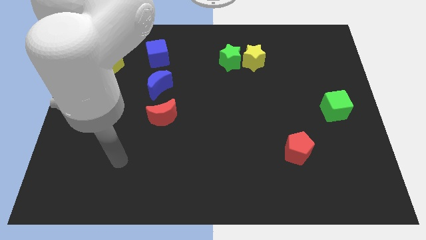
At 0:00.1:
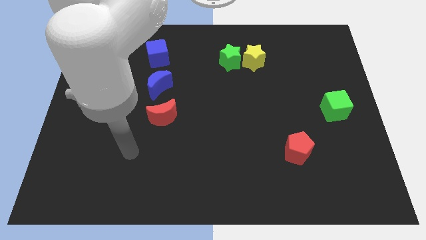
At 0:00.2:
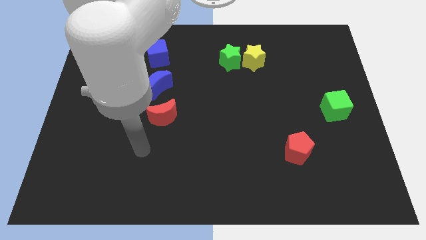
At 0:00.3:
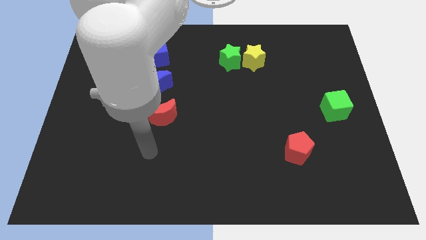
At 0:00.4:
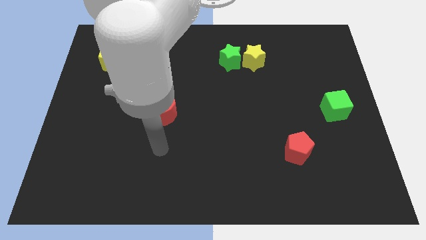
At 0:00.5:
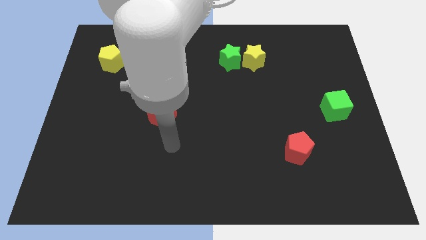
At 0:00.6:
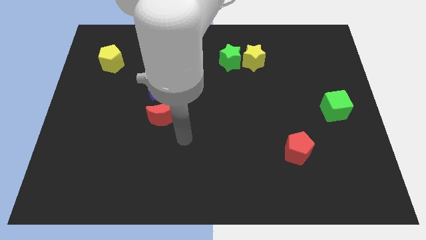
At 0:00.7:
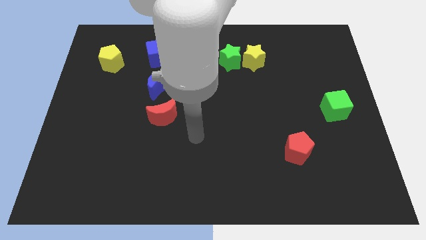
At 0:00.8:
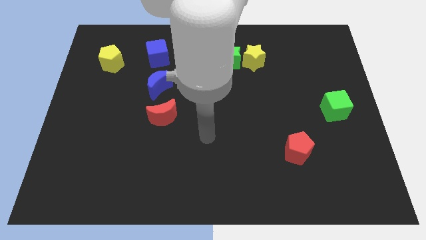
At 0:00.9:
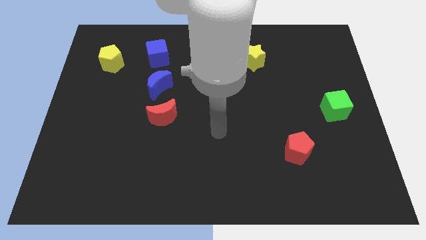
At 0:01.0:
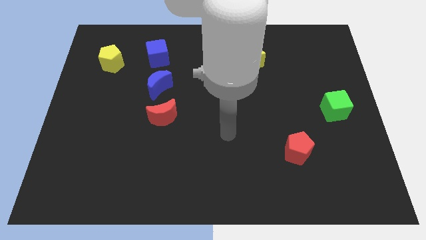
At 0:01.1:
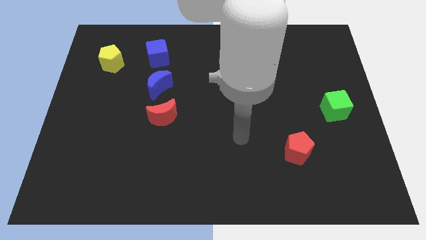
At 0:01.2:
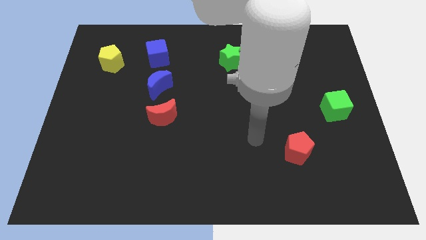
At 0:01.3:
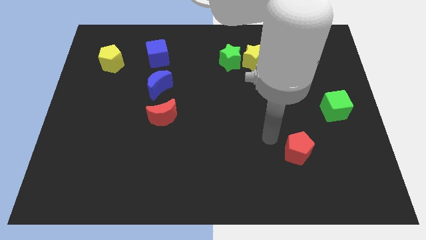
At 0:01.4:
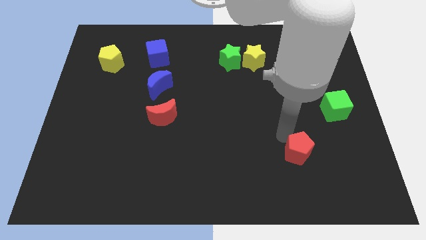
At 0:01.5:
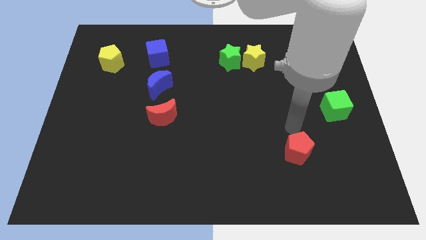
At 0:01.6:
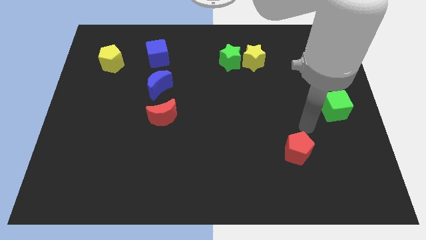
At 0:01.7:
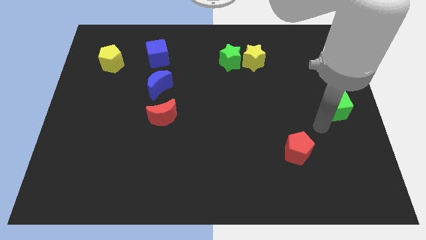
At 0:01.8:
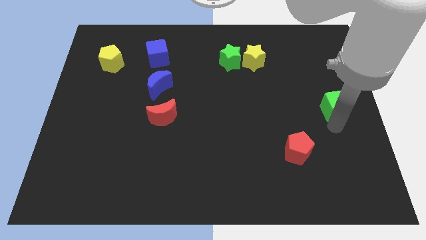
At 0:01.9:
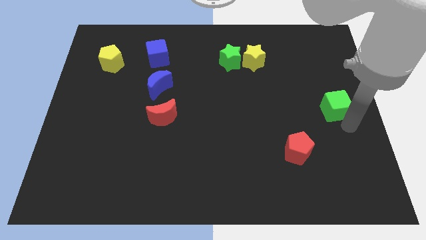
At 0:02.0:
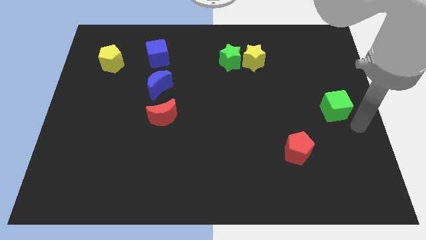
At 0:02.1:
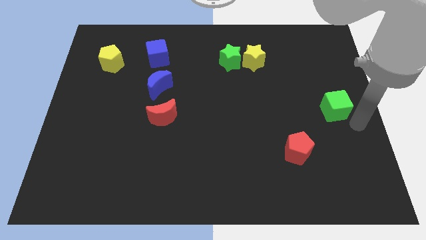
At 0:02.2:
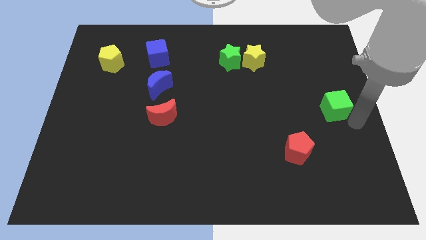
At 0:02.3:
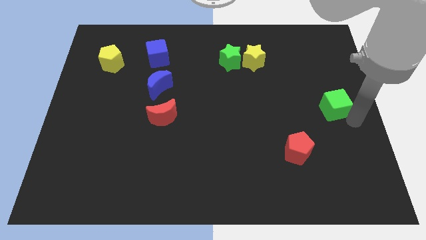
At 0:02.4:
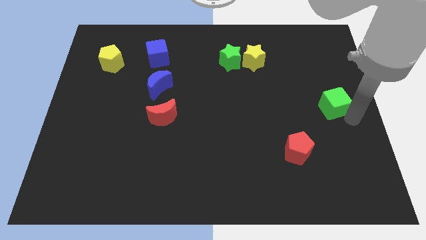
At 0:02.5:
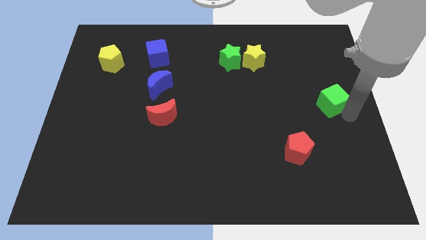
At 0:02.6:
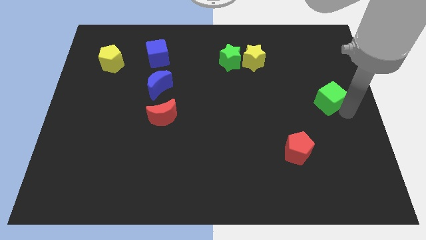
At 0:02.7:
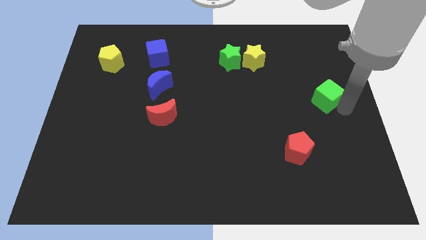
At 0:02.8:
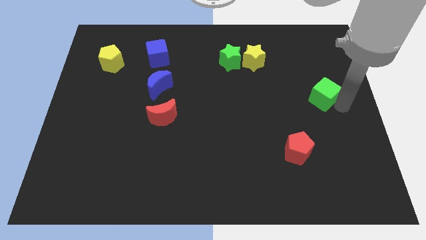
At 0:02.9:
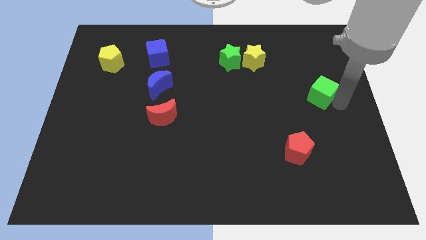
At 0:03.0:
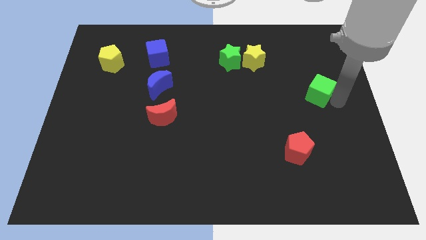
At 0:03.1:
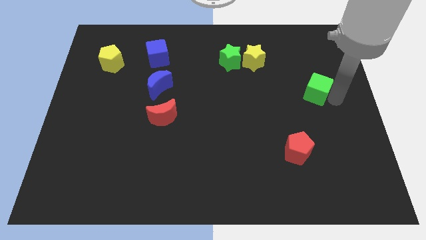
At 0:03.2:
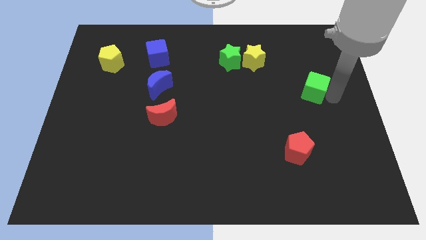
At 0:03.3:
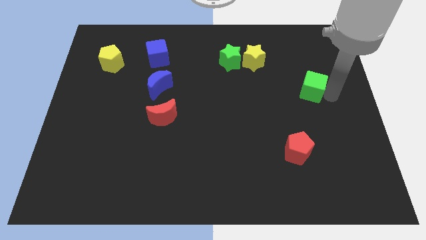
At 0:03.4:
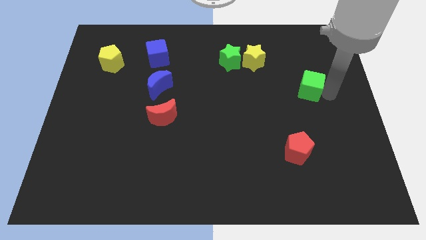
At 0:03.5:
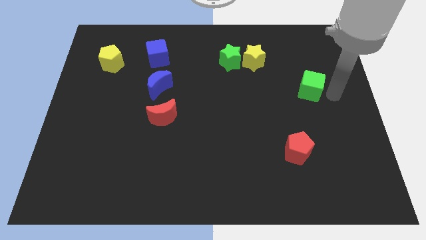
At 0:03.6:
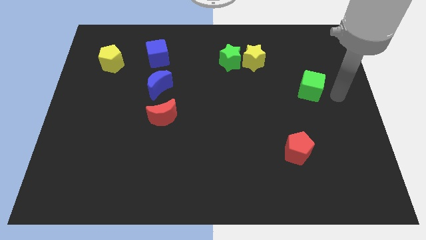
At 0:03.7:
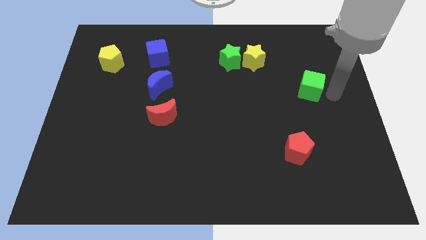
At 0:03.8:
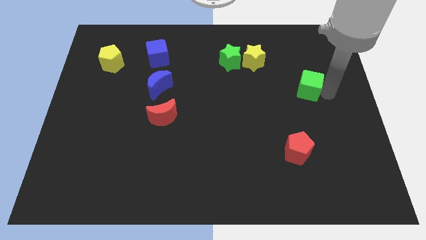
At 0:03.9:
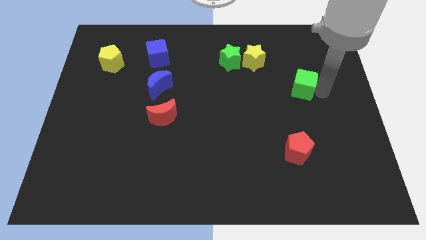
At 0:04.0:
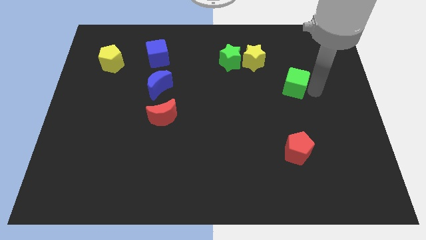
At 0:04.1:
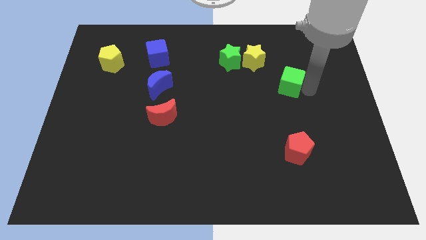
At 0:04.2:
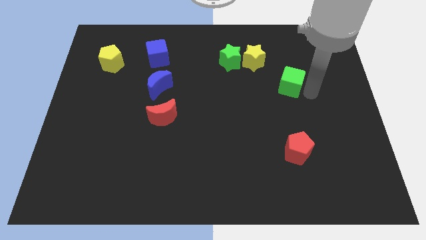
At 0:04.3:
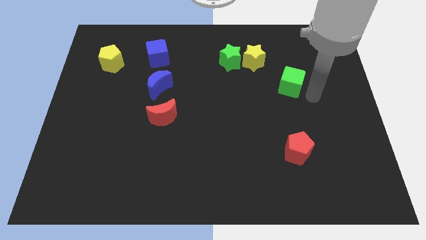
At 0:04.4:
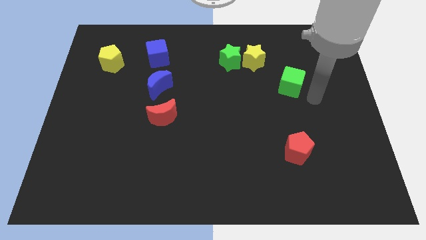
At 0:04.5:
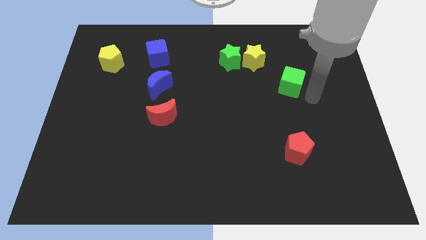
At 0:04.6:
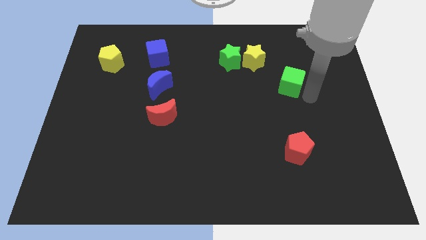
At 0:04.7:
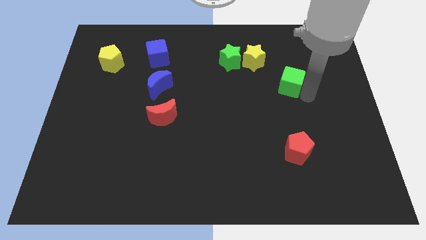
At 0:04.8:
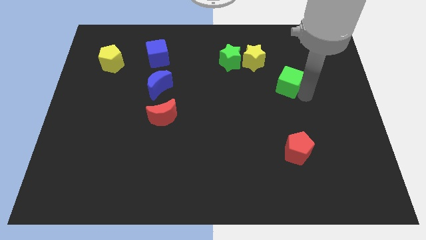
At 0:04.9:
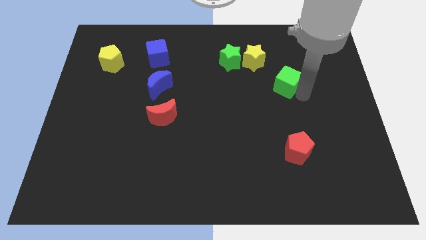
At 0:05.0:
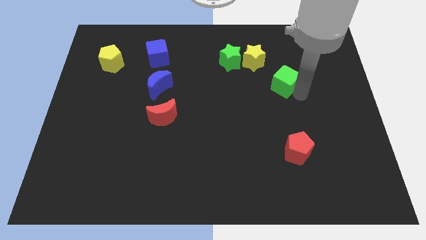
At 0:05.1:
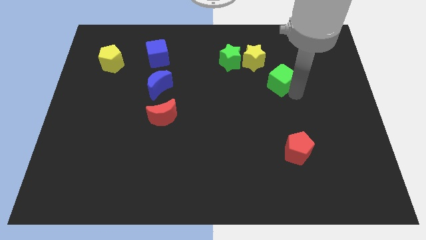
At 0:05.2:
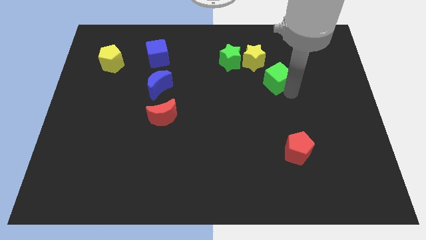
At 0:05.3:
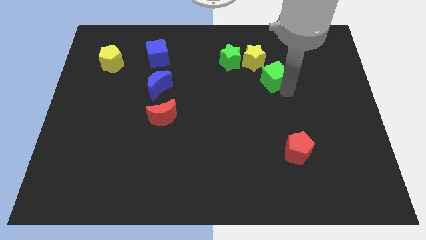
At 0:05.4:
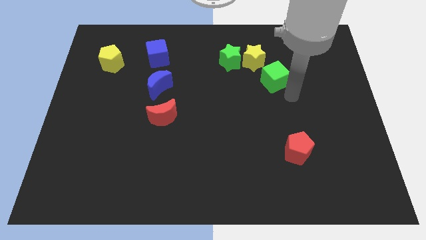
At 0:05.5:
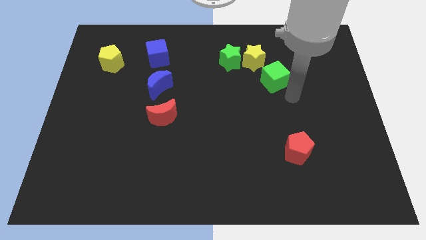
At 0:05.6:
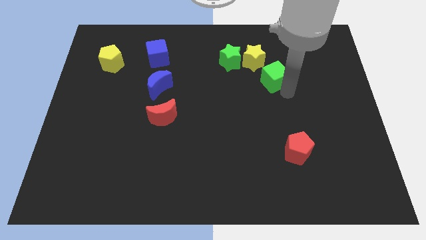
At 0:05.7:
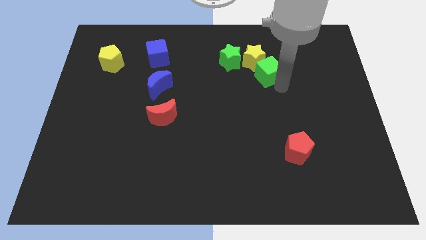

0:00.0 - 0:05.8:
slide the green cube next to the yellow star

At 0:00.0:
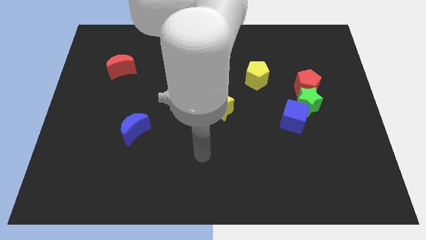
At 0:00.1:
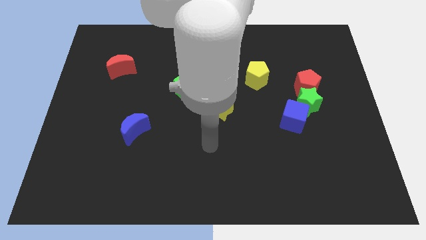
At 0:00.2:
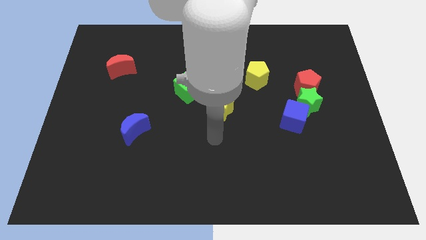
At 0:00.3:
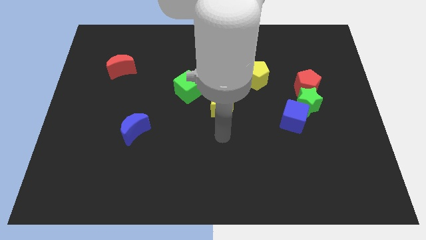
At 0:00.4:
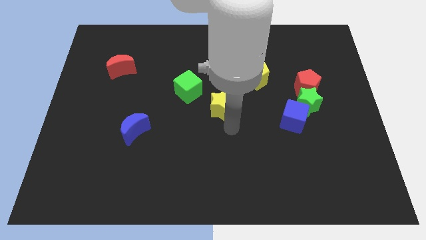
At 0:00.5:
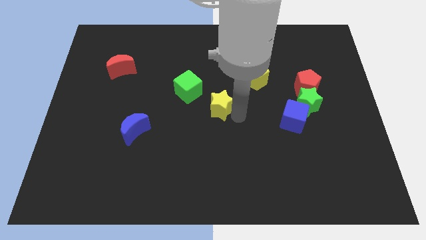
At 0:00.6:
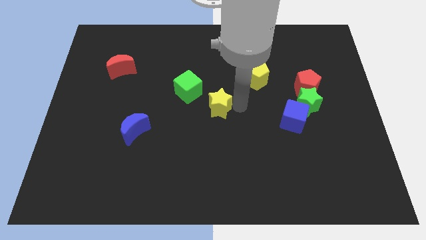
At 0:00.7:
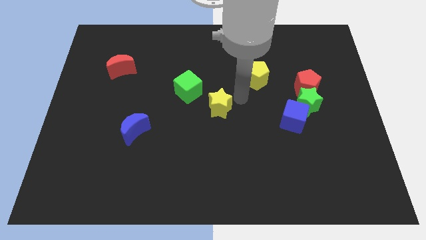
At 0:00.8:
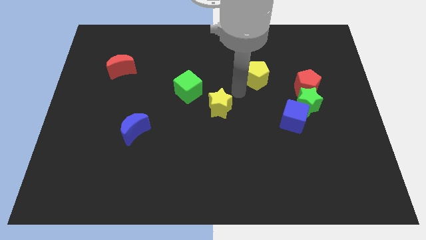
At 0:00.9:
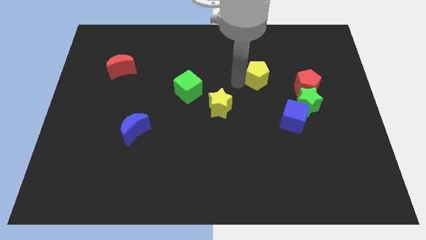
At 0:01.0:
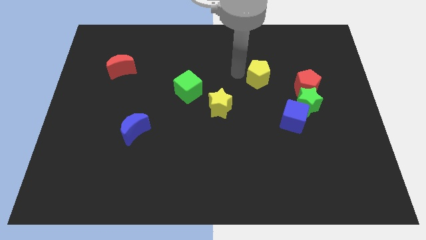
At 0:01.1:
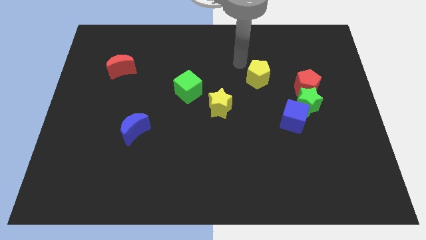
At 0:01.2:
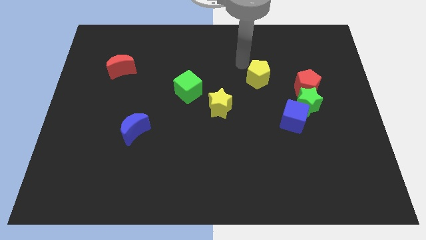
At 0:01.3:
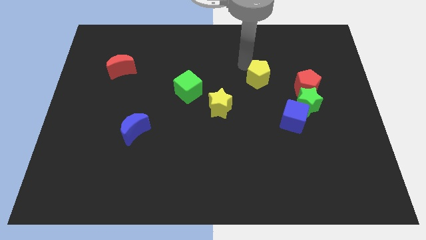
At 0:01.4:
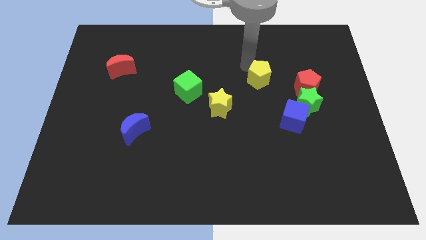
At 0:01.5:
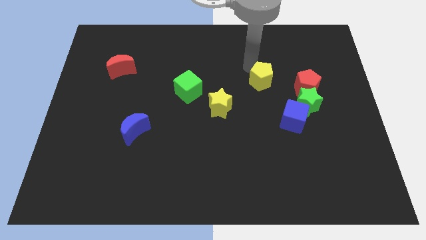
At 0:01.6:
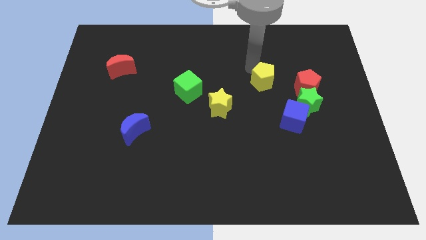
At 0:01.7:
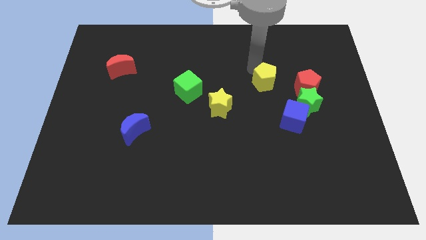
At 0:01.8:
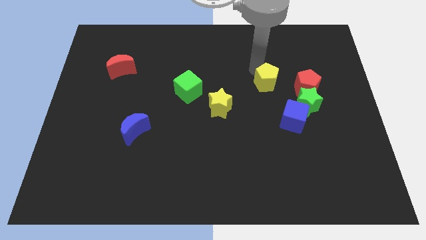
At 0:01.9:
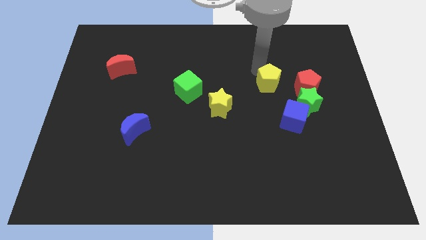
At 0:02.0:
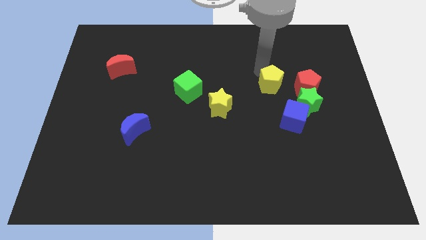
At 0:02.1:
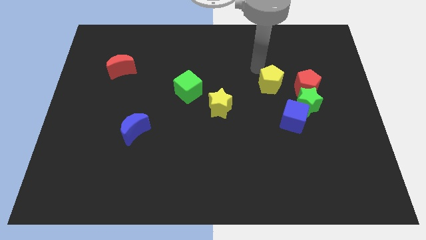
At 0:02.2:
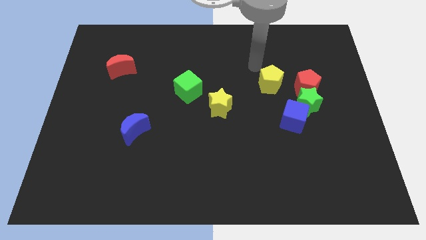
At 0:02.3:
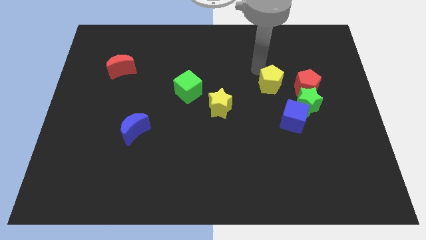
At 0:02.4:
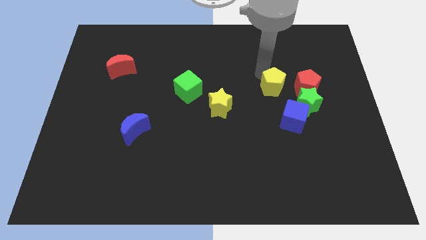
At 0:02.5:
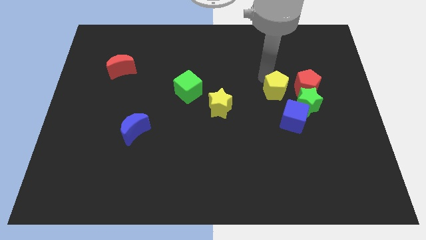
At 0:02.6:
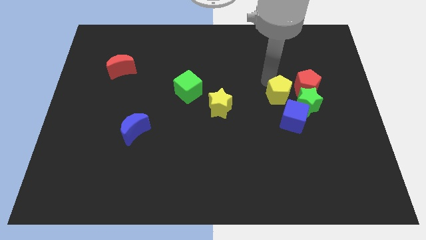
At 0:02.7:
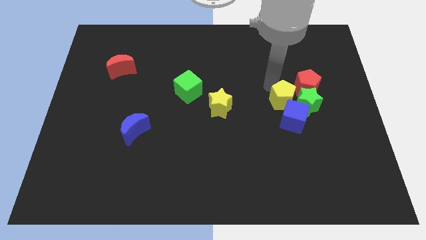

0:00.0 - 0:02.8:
push the yellow pentagon to the green star
